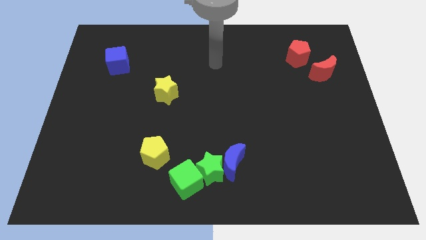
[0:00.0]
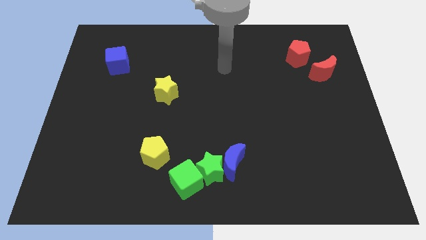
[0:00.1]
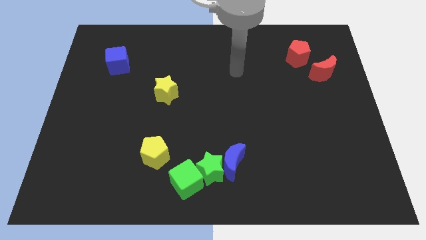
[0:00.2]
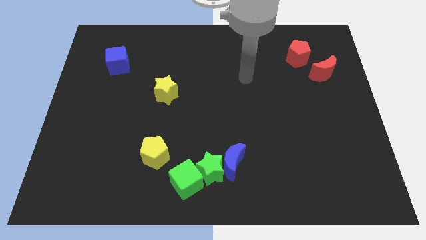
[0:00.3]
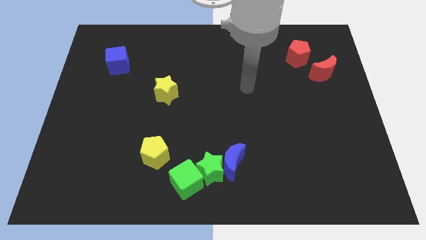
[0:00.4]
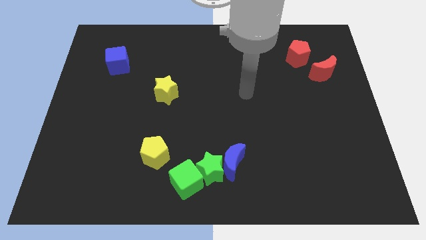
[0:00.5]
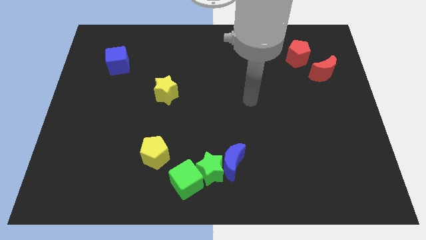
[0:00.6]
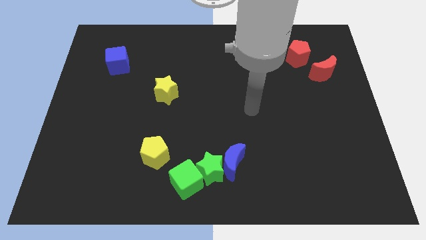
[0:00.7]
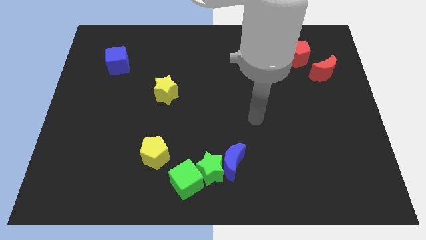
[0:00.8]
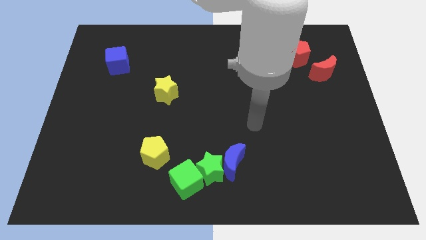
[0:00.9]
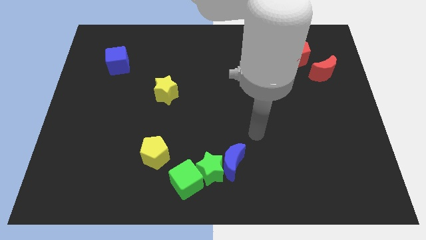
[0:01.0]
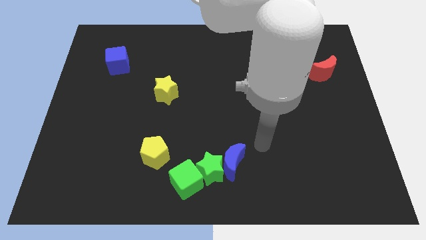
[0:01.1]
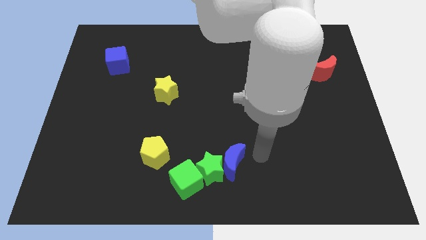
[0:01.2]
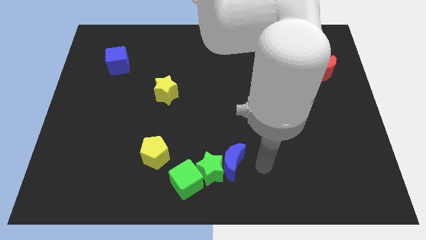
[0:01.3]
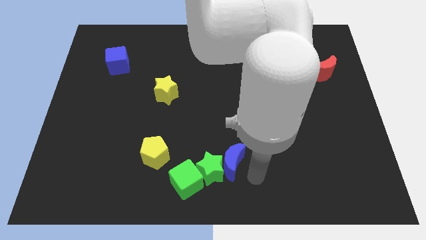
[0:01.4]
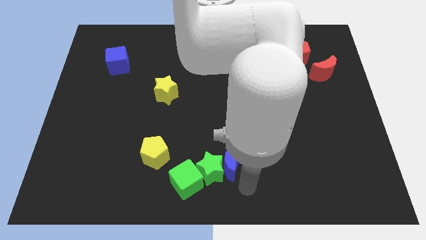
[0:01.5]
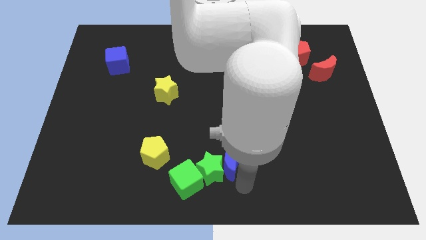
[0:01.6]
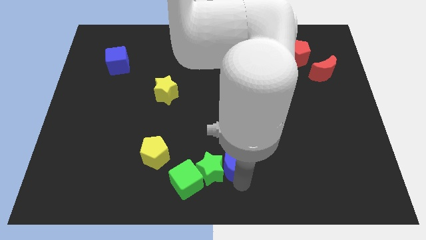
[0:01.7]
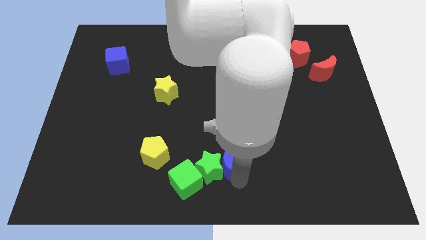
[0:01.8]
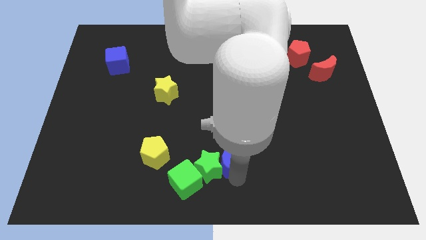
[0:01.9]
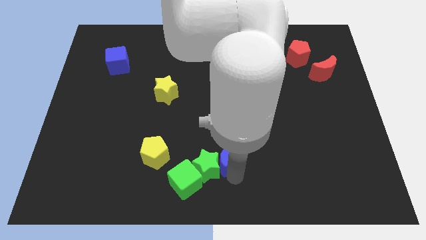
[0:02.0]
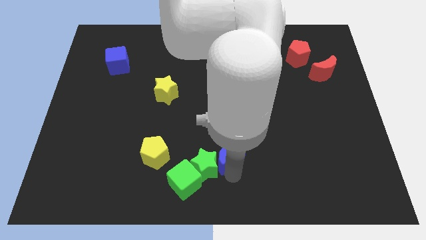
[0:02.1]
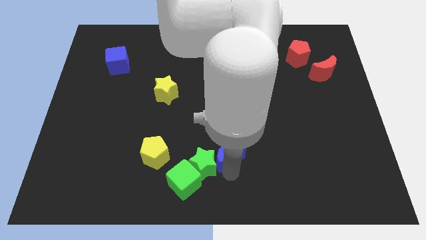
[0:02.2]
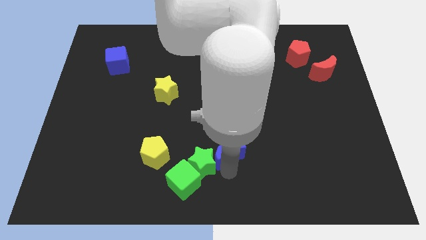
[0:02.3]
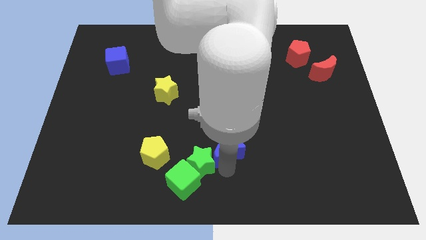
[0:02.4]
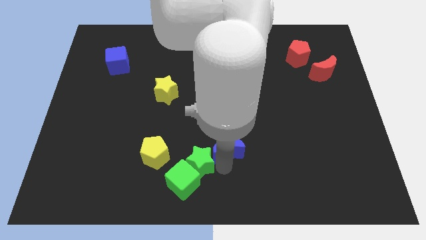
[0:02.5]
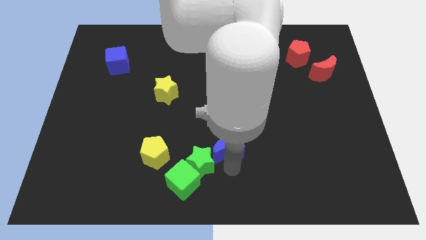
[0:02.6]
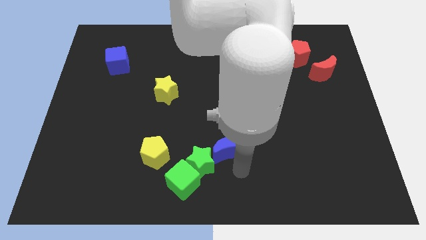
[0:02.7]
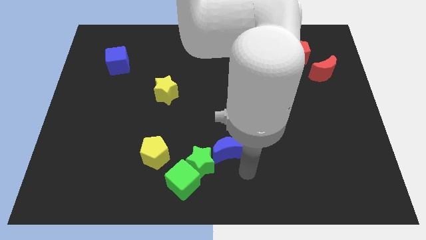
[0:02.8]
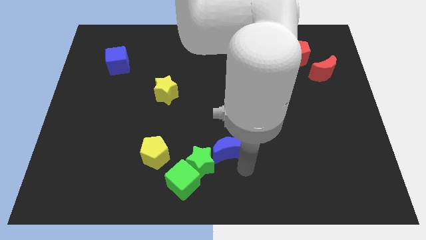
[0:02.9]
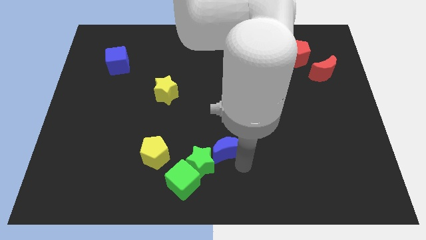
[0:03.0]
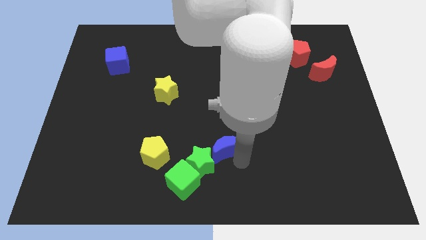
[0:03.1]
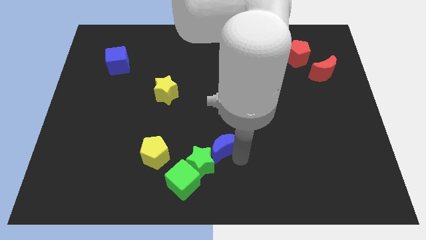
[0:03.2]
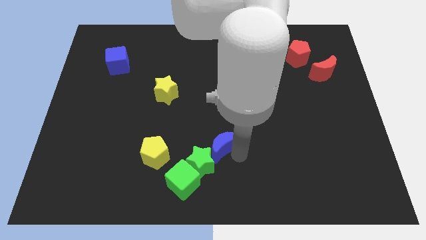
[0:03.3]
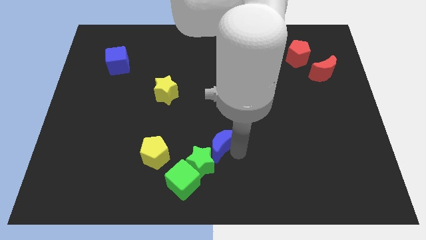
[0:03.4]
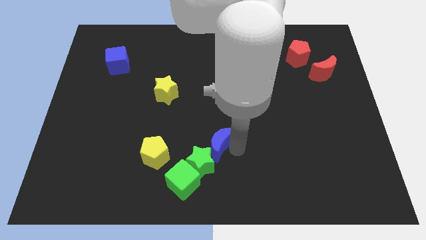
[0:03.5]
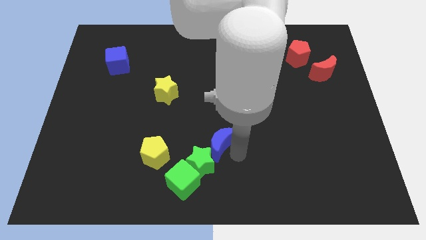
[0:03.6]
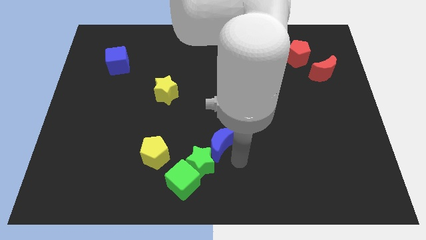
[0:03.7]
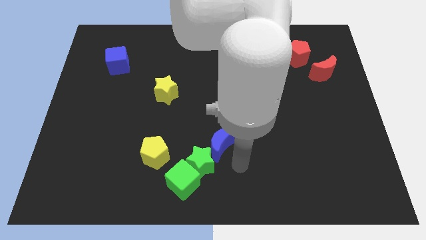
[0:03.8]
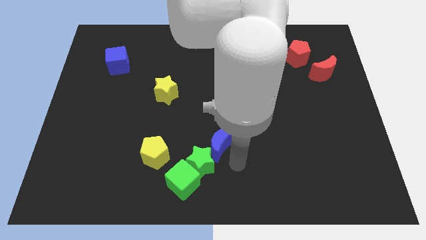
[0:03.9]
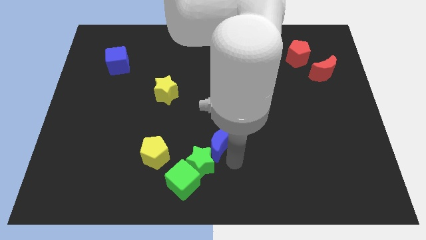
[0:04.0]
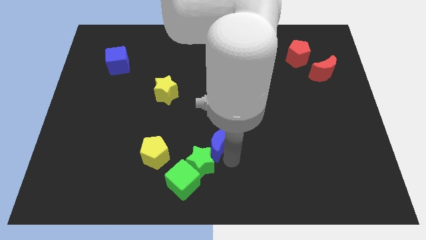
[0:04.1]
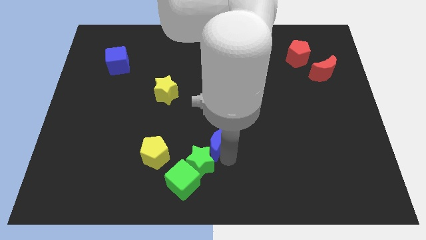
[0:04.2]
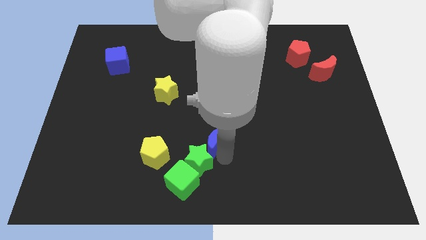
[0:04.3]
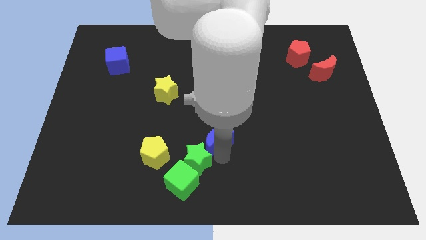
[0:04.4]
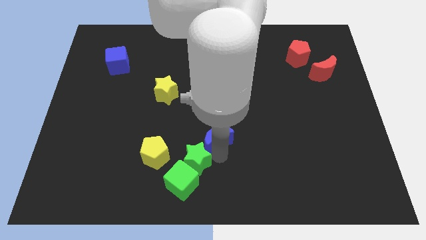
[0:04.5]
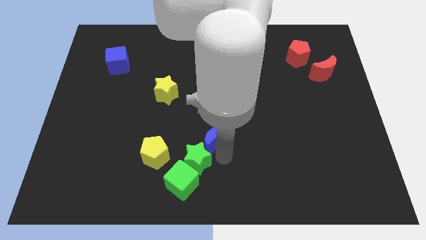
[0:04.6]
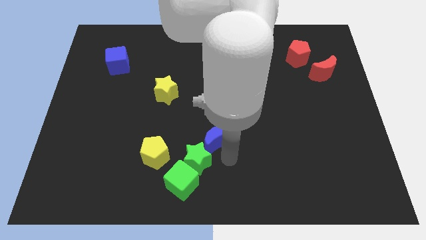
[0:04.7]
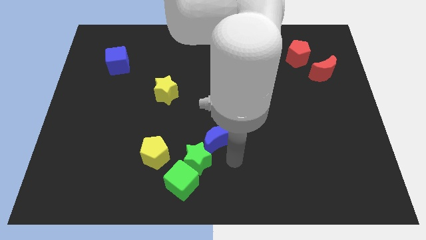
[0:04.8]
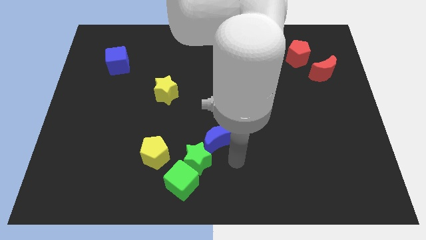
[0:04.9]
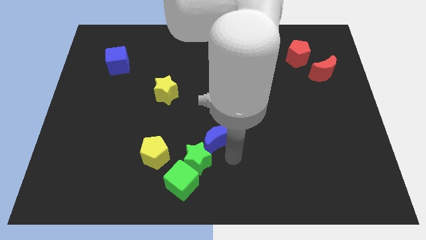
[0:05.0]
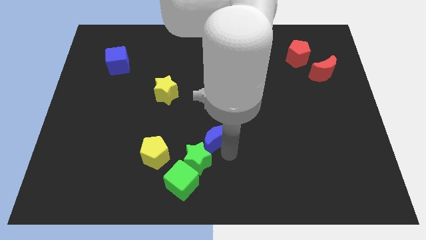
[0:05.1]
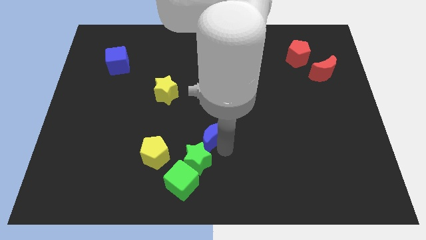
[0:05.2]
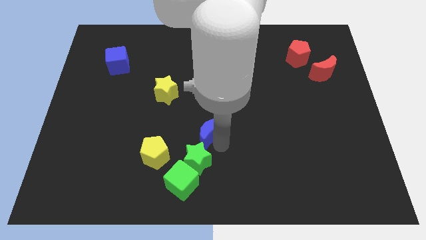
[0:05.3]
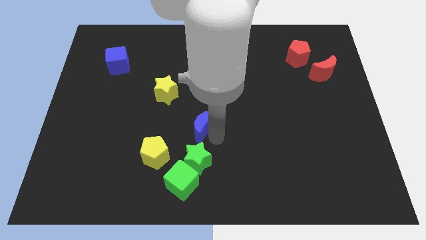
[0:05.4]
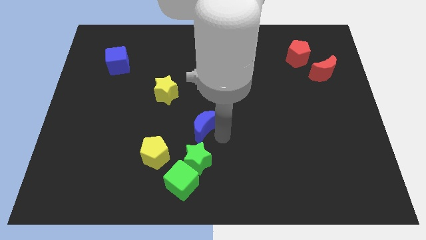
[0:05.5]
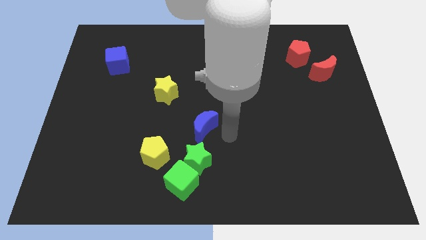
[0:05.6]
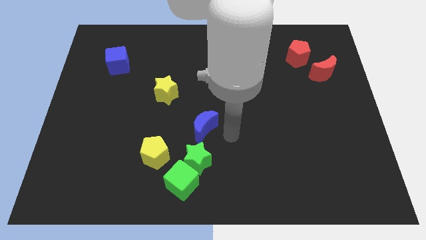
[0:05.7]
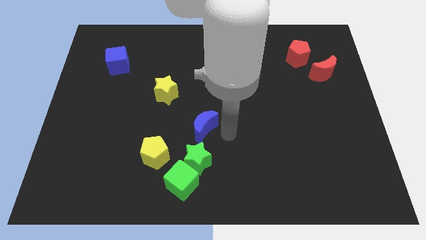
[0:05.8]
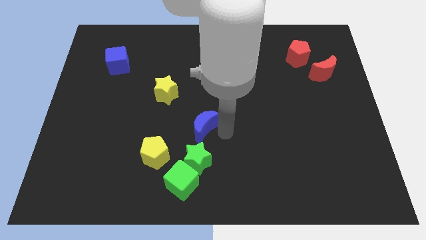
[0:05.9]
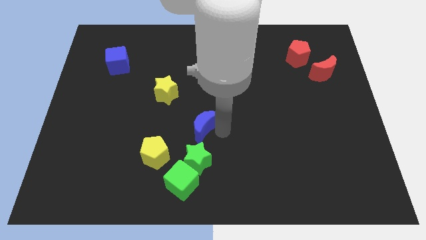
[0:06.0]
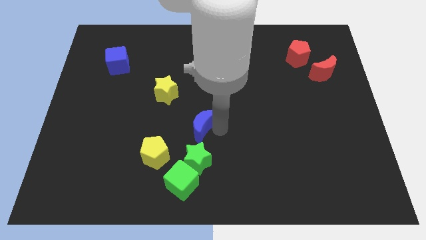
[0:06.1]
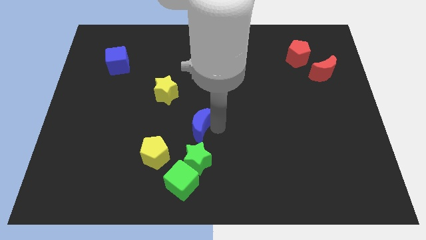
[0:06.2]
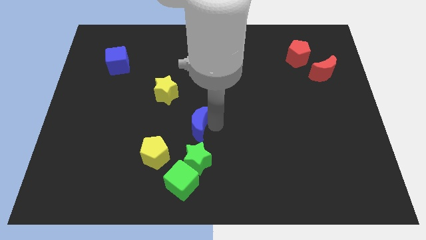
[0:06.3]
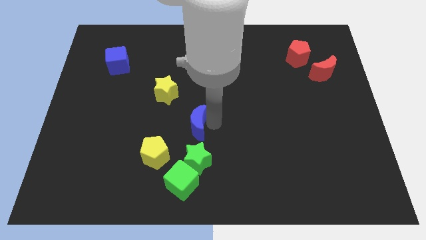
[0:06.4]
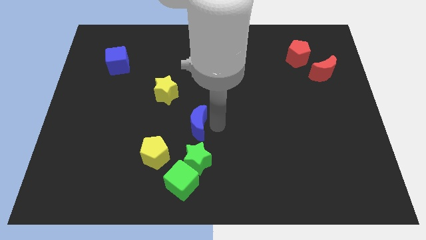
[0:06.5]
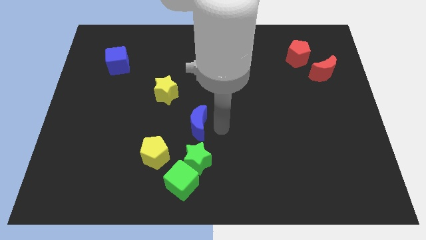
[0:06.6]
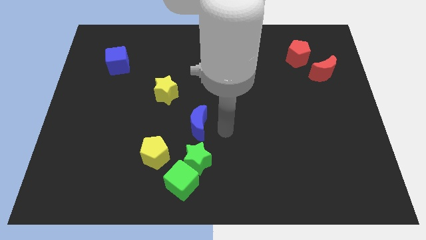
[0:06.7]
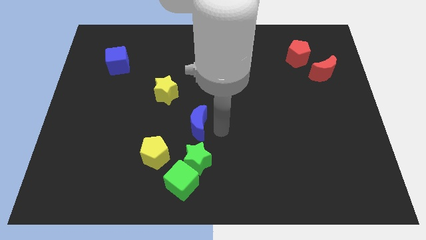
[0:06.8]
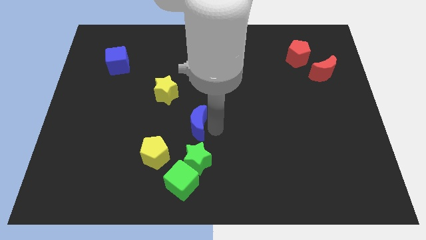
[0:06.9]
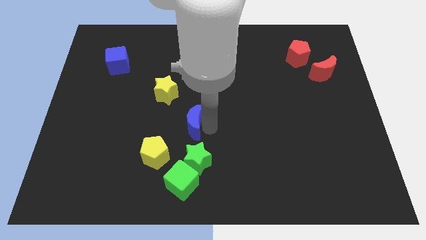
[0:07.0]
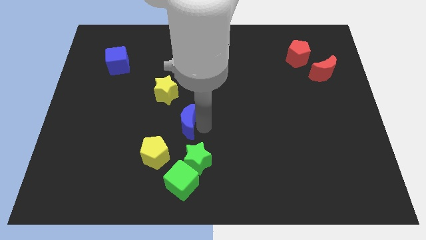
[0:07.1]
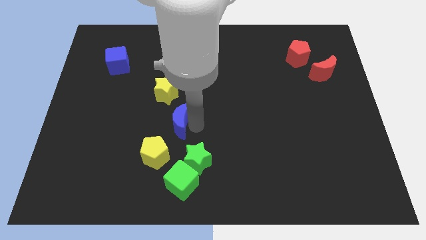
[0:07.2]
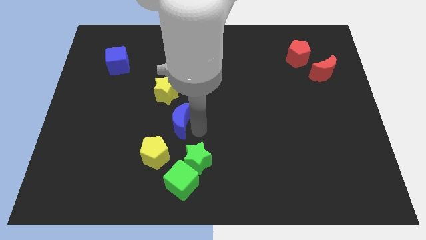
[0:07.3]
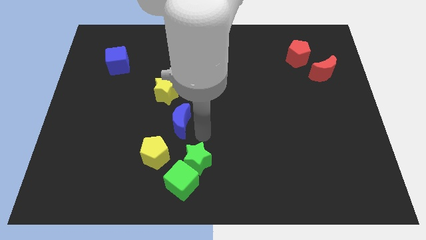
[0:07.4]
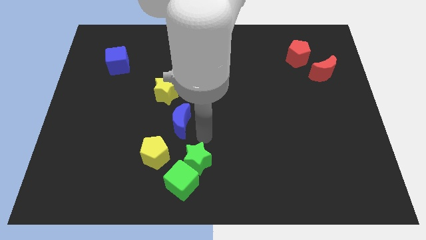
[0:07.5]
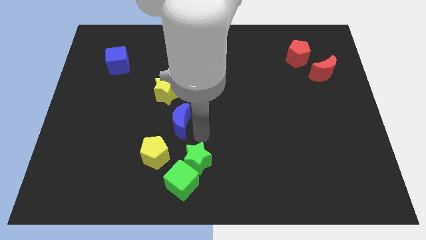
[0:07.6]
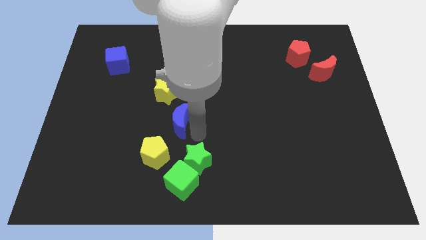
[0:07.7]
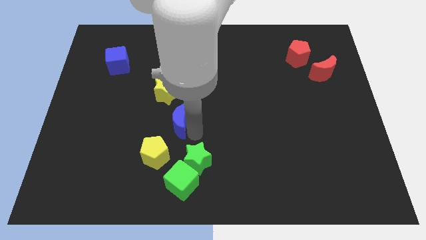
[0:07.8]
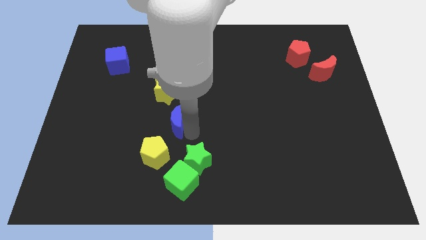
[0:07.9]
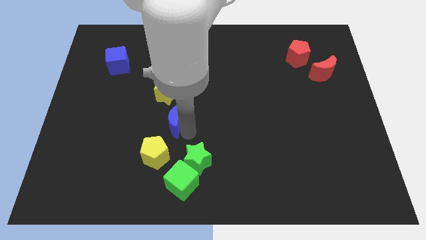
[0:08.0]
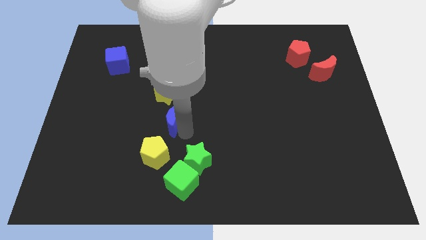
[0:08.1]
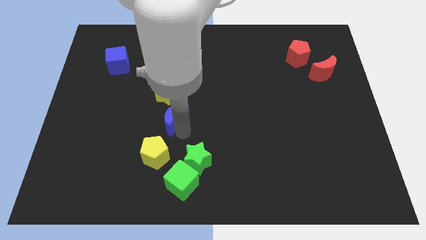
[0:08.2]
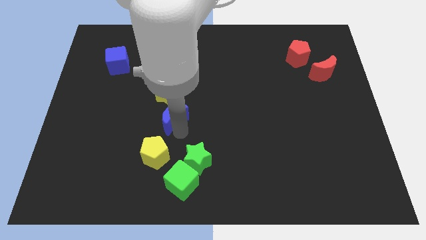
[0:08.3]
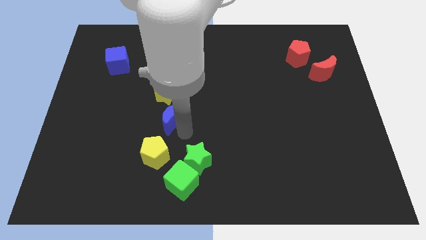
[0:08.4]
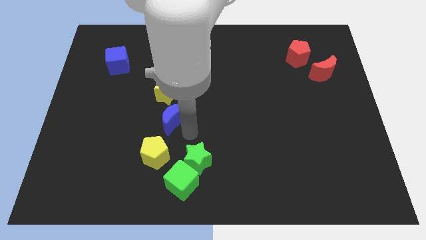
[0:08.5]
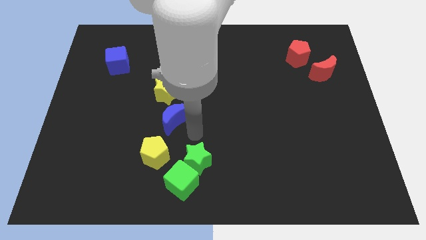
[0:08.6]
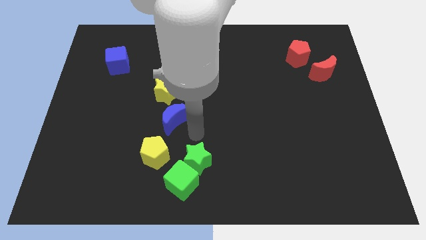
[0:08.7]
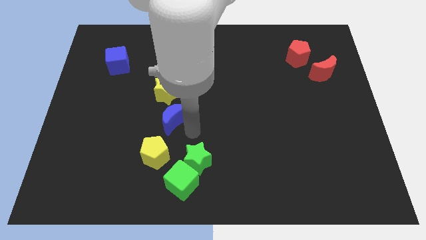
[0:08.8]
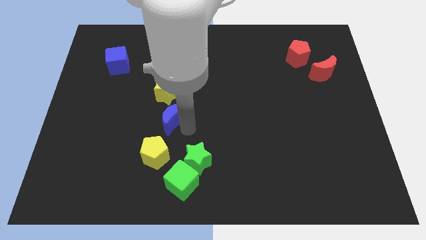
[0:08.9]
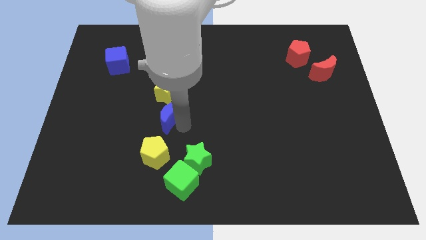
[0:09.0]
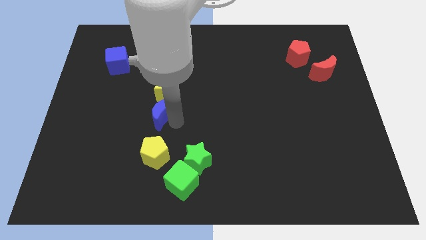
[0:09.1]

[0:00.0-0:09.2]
push the blue moon upwards and then left
